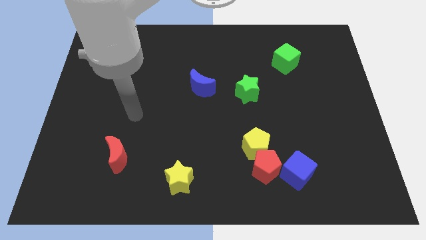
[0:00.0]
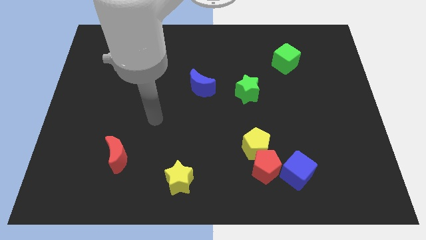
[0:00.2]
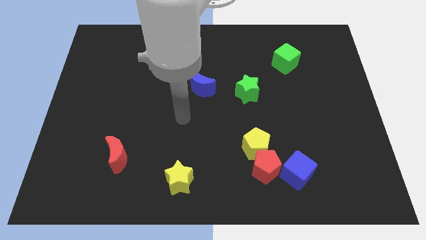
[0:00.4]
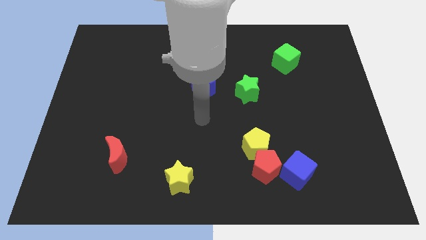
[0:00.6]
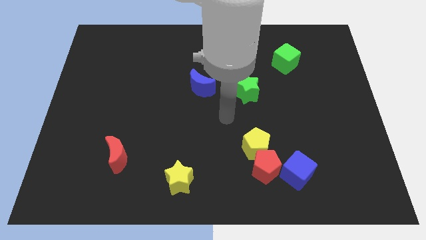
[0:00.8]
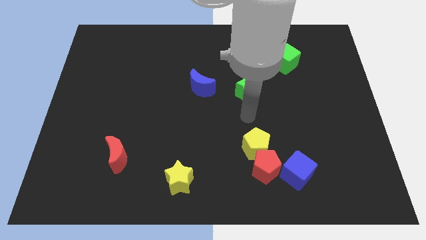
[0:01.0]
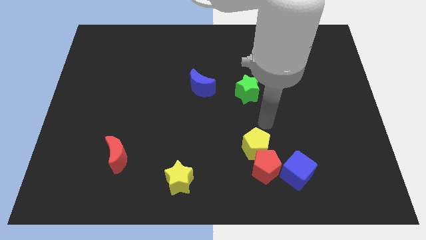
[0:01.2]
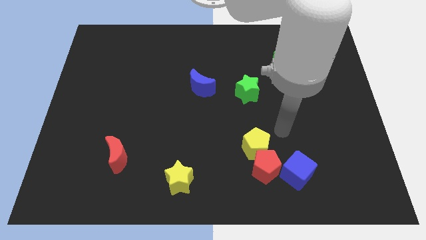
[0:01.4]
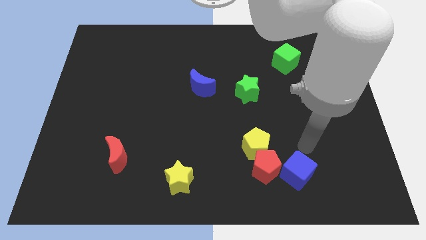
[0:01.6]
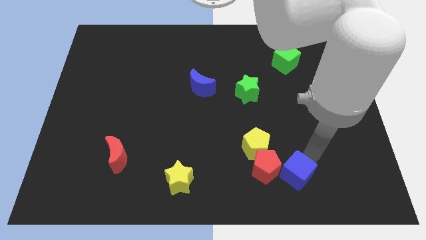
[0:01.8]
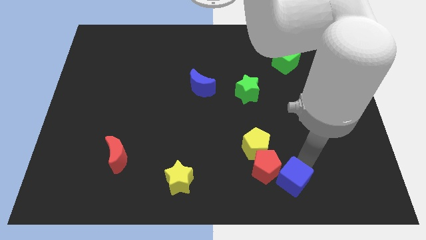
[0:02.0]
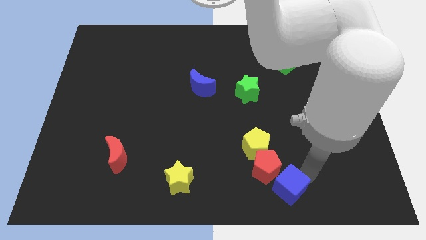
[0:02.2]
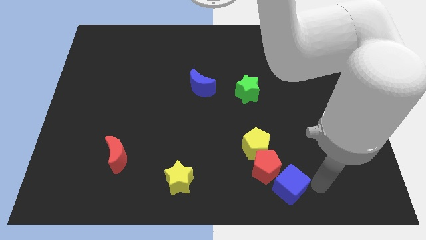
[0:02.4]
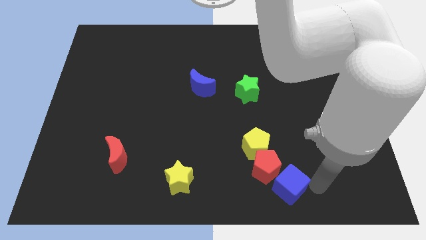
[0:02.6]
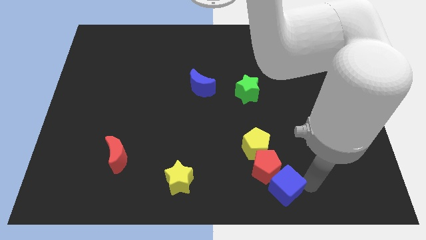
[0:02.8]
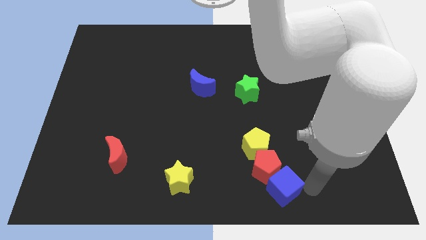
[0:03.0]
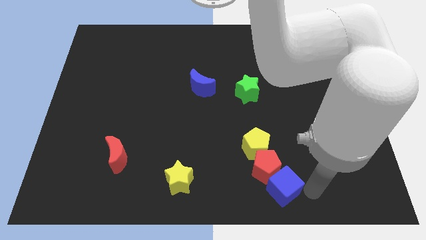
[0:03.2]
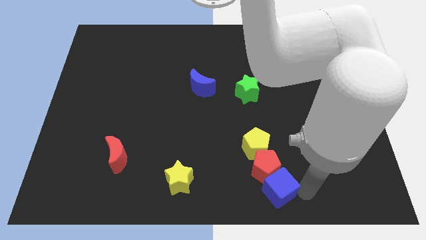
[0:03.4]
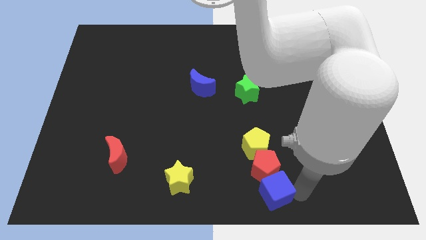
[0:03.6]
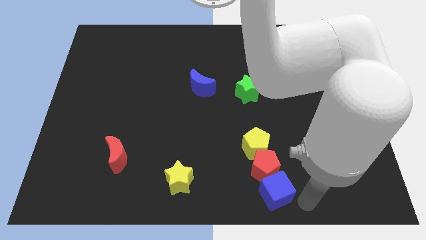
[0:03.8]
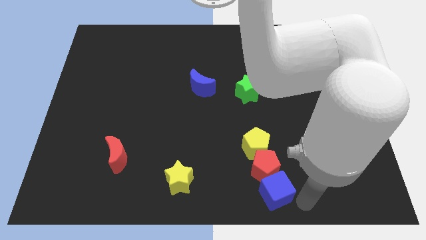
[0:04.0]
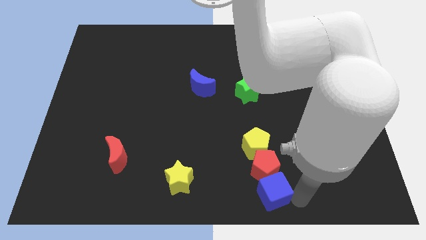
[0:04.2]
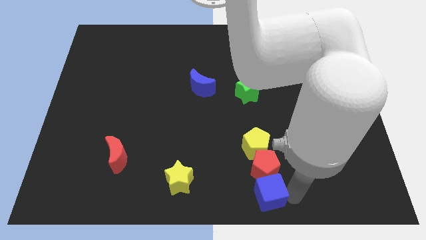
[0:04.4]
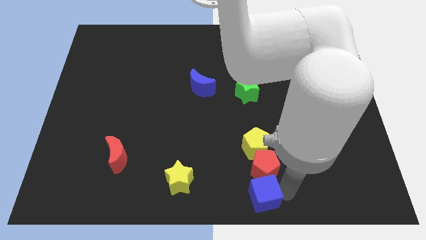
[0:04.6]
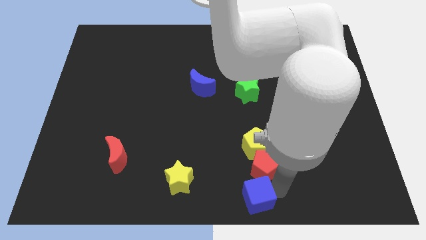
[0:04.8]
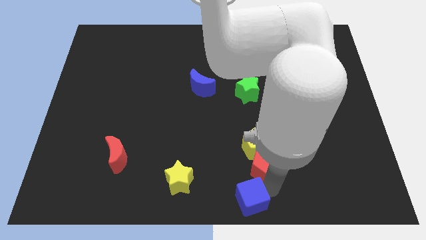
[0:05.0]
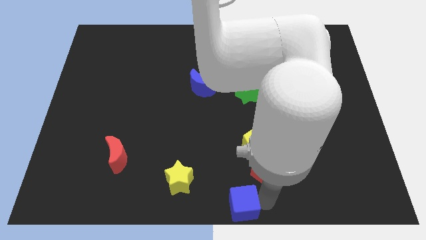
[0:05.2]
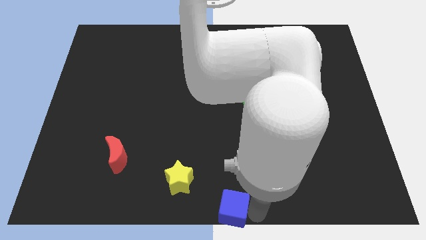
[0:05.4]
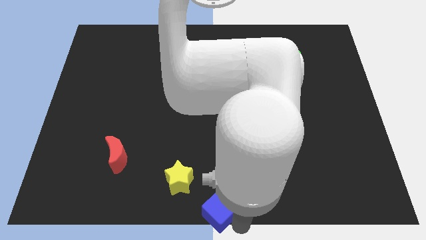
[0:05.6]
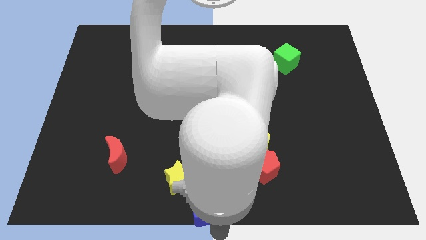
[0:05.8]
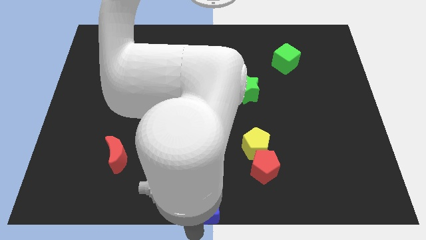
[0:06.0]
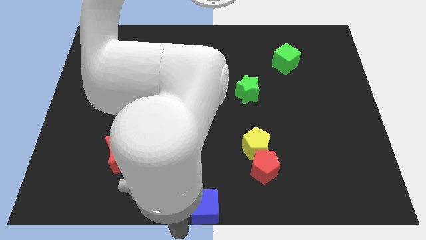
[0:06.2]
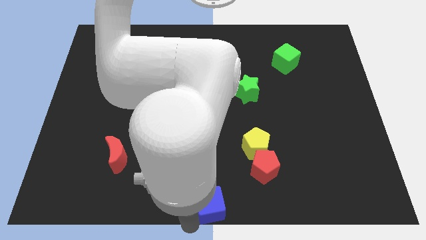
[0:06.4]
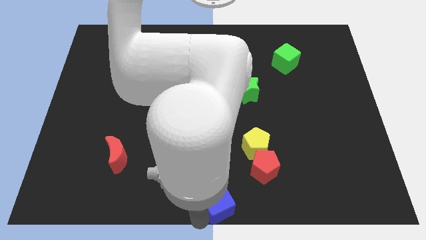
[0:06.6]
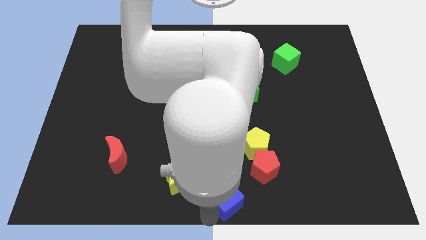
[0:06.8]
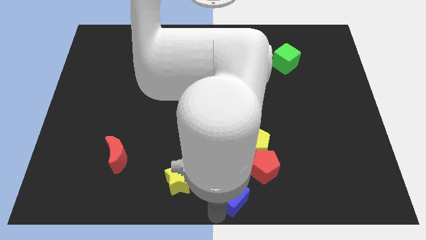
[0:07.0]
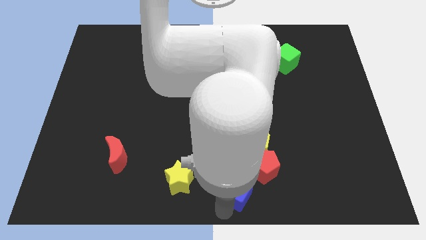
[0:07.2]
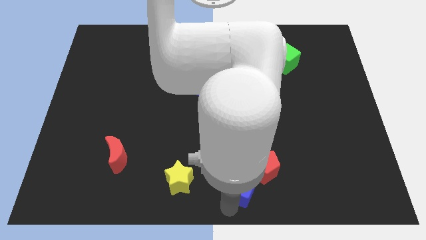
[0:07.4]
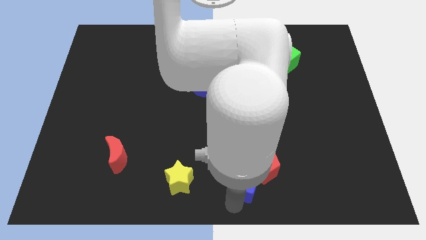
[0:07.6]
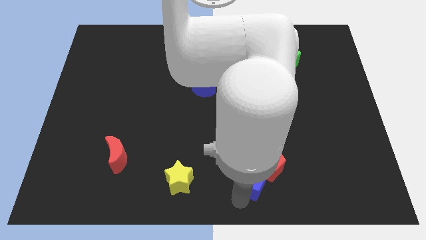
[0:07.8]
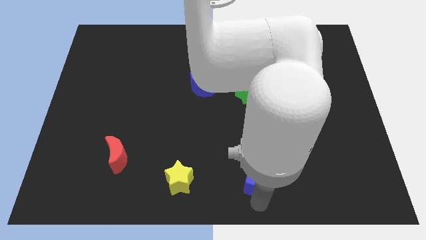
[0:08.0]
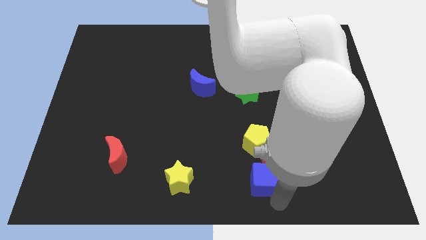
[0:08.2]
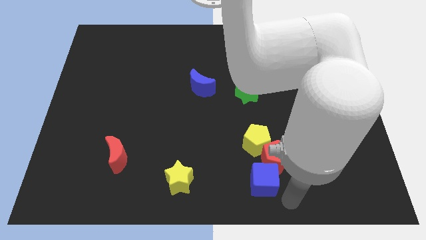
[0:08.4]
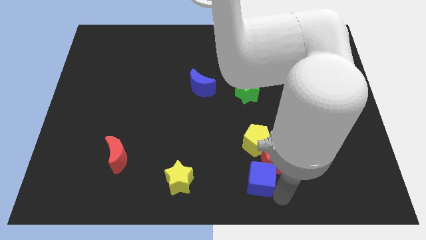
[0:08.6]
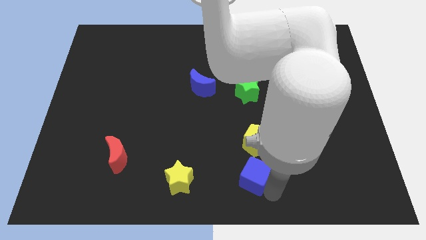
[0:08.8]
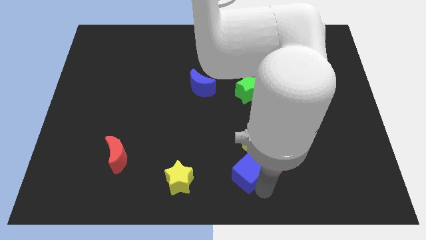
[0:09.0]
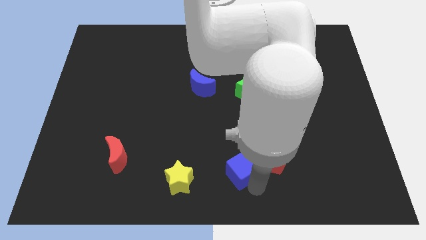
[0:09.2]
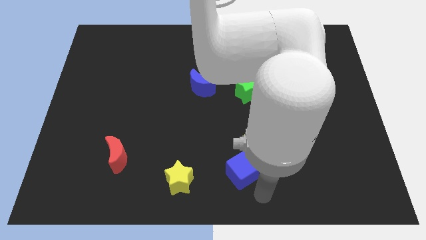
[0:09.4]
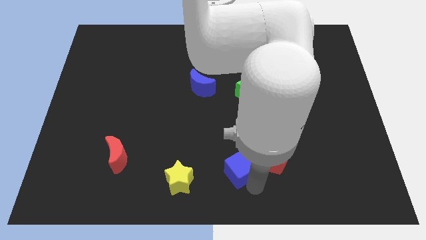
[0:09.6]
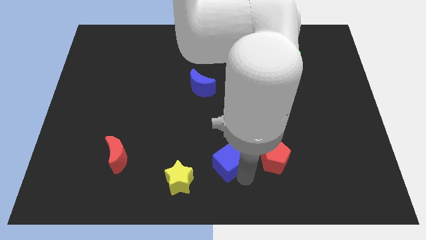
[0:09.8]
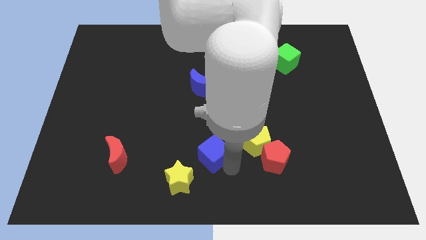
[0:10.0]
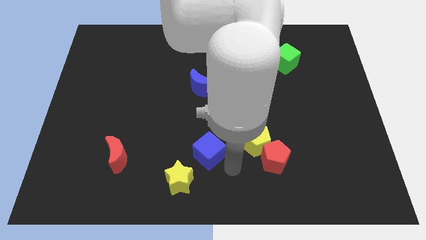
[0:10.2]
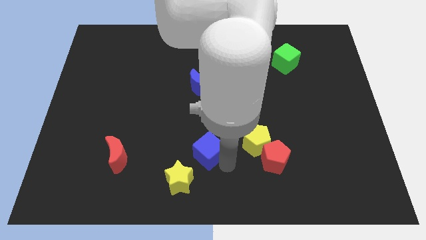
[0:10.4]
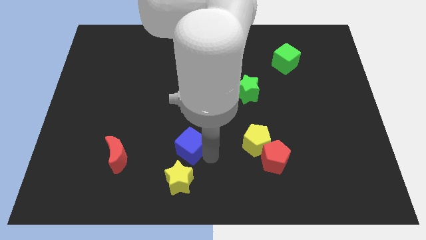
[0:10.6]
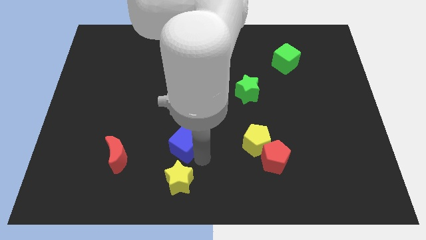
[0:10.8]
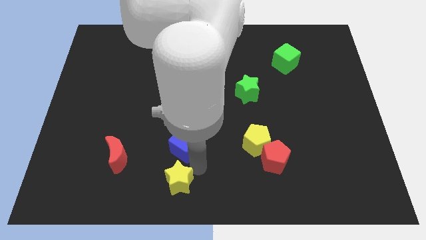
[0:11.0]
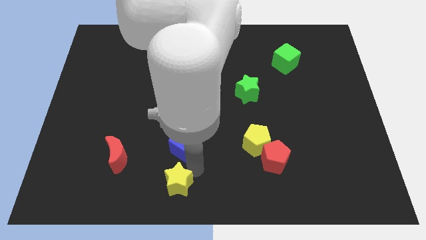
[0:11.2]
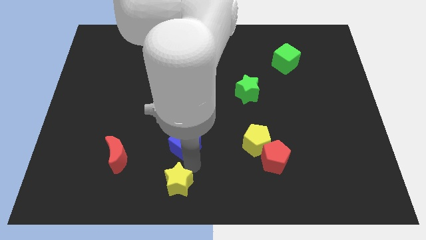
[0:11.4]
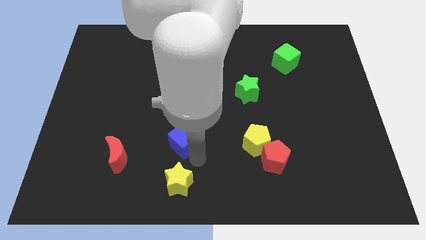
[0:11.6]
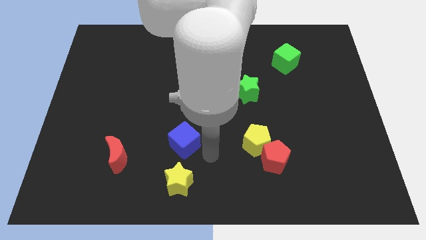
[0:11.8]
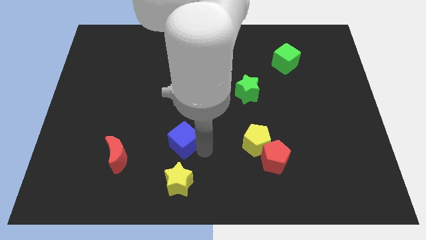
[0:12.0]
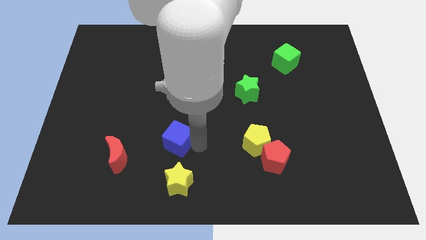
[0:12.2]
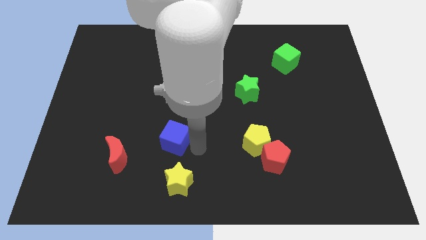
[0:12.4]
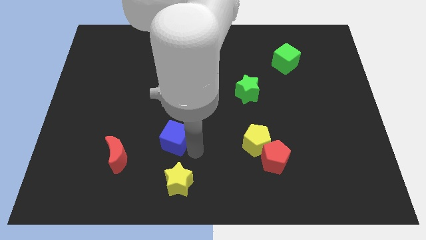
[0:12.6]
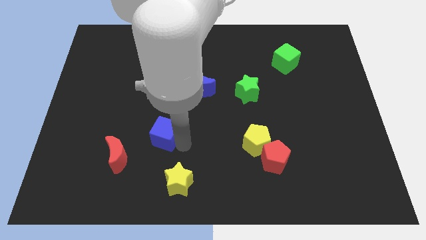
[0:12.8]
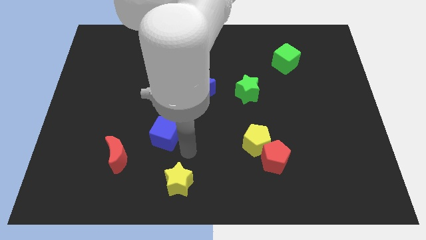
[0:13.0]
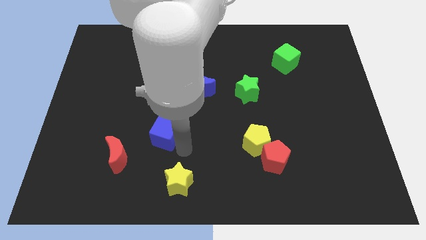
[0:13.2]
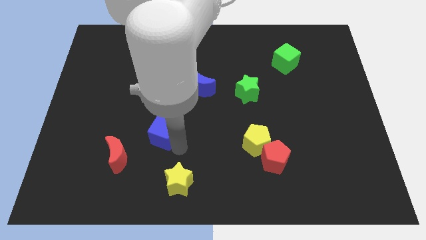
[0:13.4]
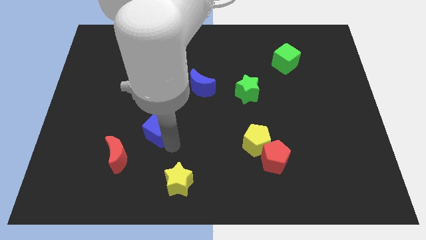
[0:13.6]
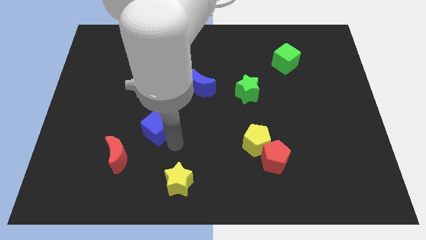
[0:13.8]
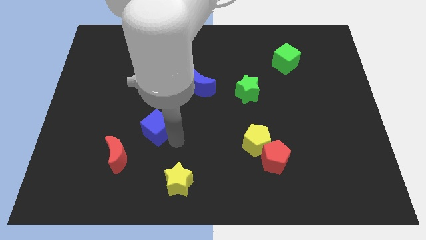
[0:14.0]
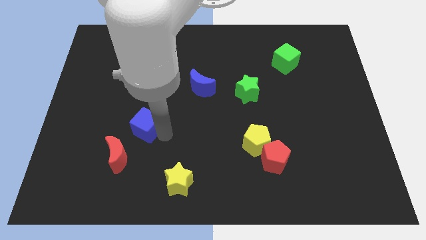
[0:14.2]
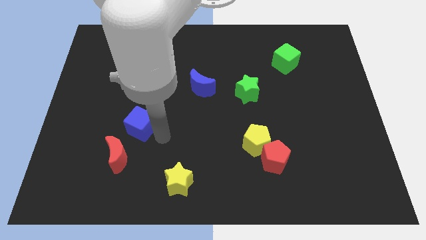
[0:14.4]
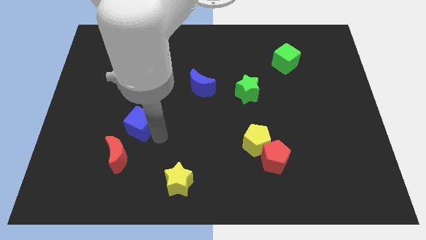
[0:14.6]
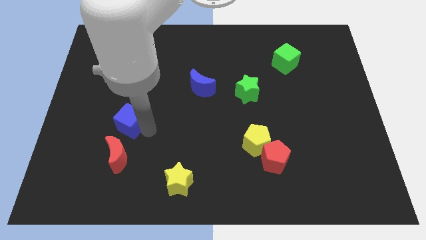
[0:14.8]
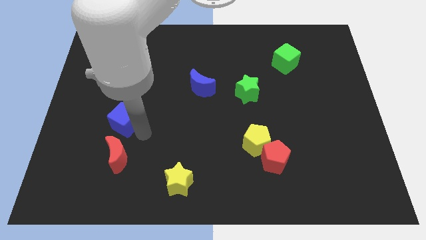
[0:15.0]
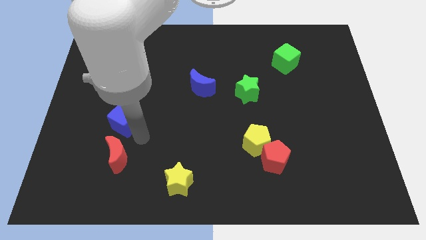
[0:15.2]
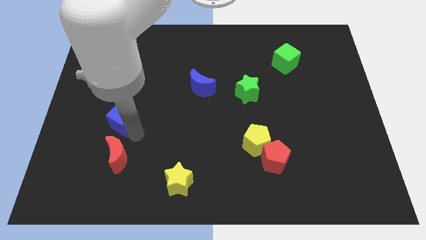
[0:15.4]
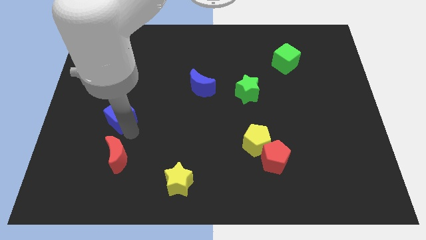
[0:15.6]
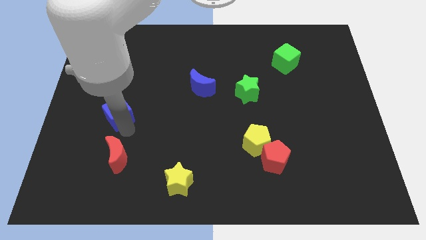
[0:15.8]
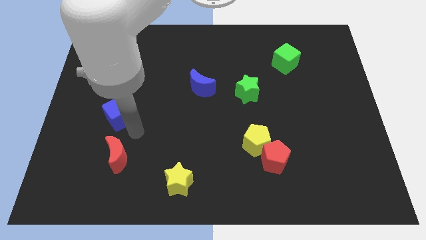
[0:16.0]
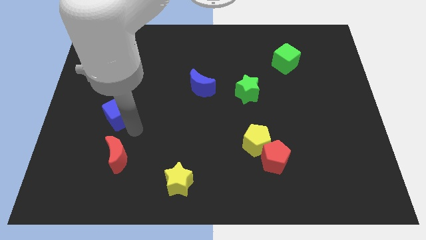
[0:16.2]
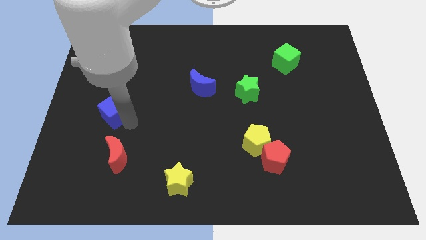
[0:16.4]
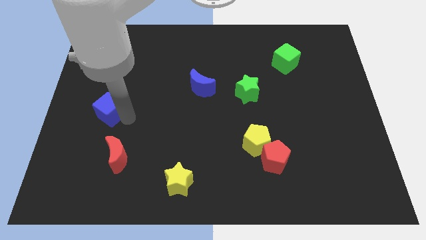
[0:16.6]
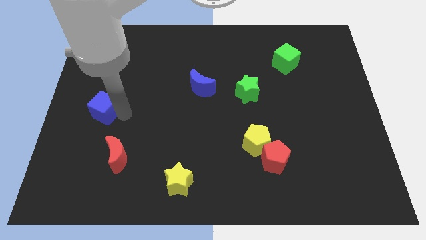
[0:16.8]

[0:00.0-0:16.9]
push the blue cube to the center left
